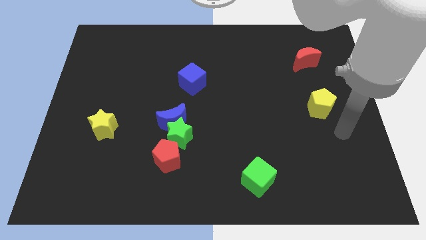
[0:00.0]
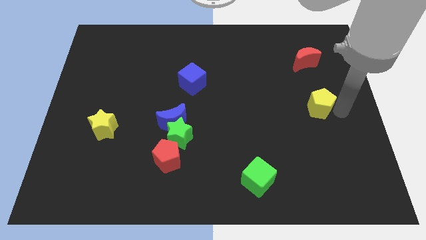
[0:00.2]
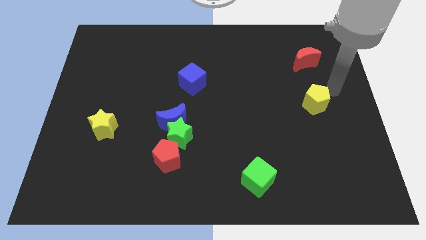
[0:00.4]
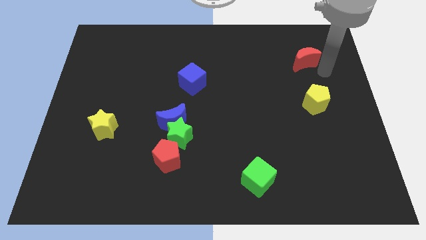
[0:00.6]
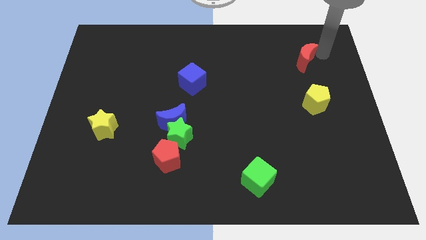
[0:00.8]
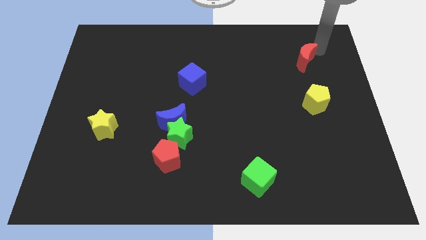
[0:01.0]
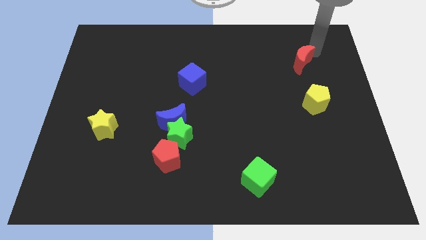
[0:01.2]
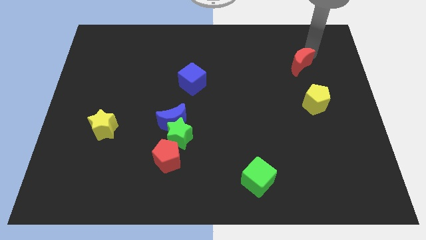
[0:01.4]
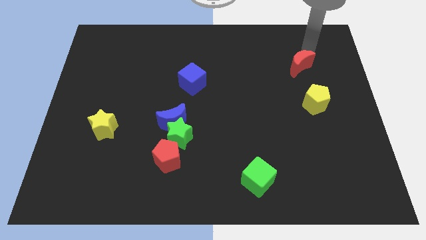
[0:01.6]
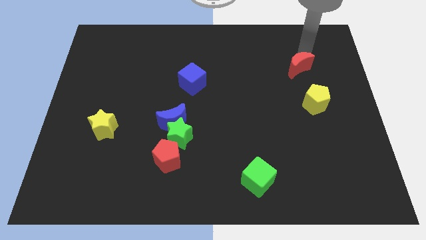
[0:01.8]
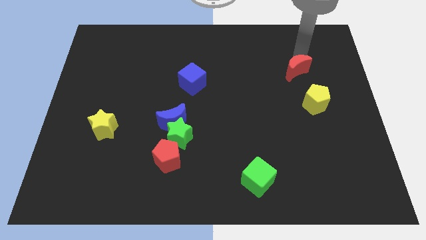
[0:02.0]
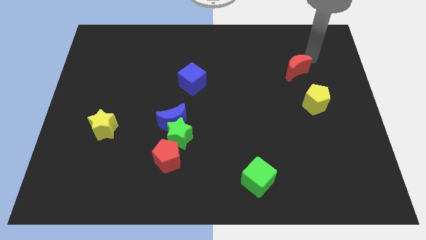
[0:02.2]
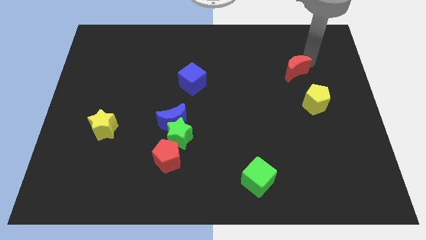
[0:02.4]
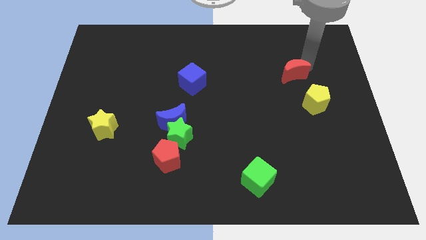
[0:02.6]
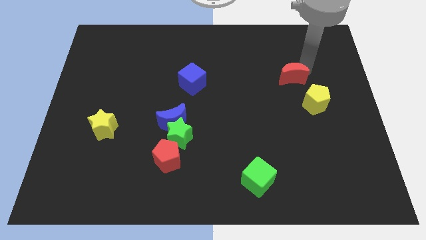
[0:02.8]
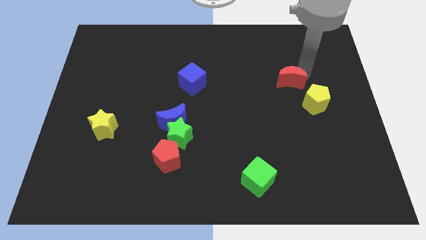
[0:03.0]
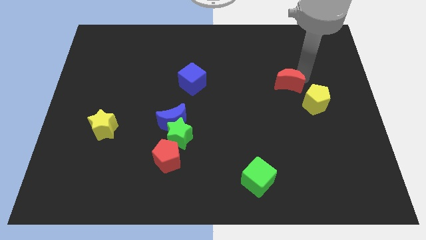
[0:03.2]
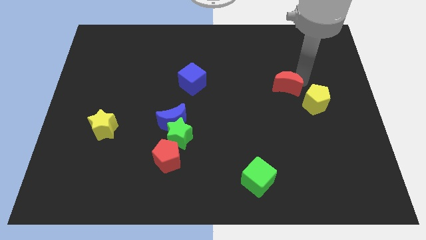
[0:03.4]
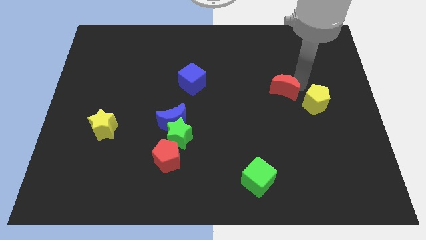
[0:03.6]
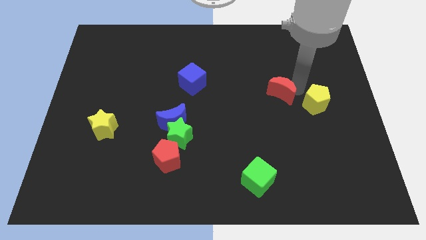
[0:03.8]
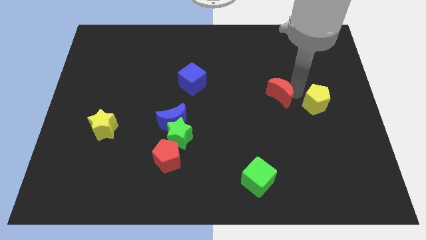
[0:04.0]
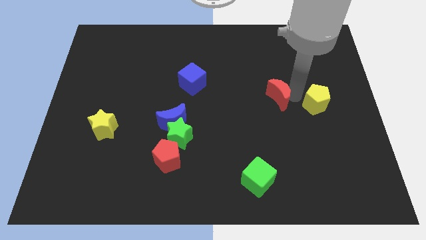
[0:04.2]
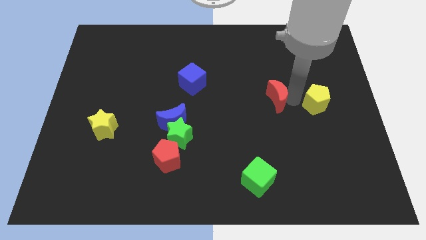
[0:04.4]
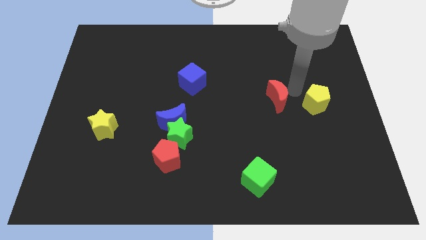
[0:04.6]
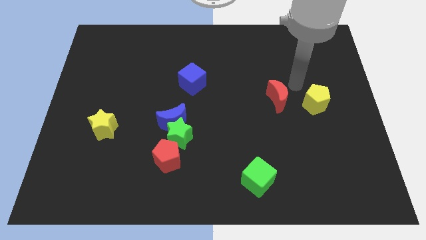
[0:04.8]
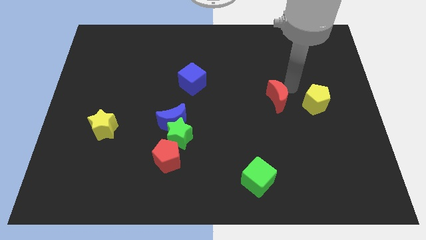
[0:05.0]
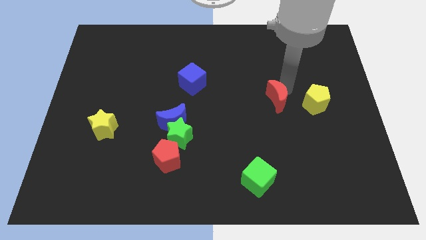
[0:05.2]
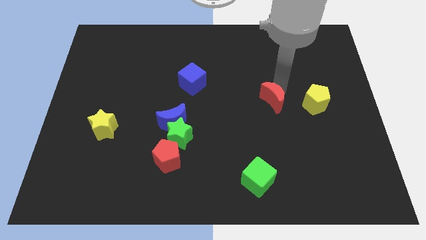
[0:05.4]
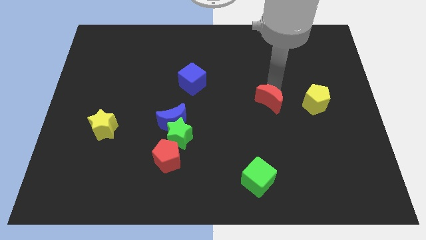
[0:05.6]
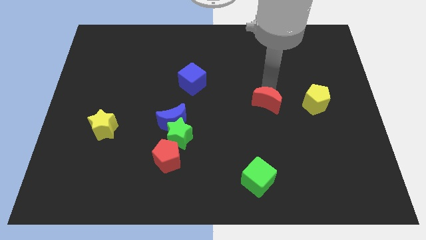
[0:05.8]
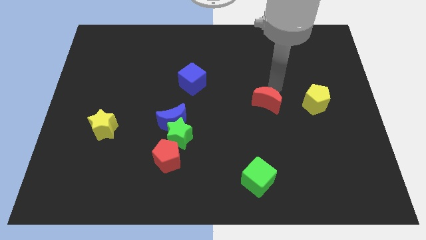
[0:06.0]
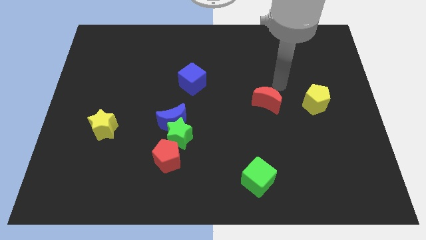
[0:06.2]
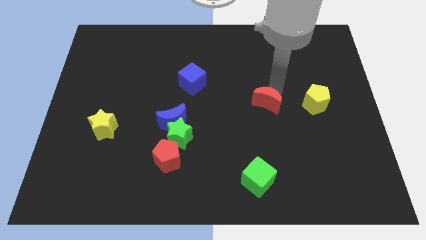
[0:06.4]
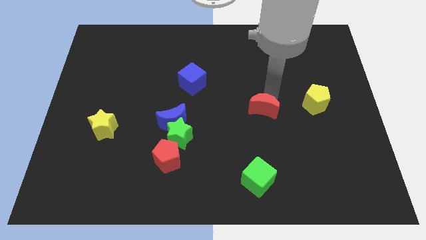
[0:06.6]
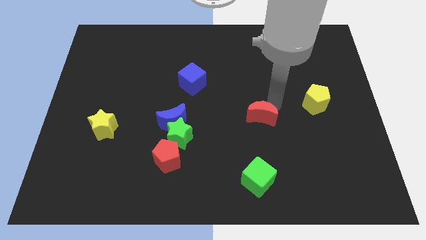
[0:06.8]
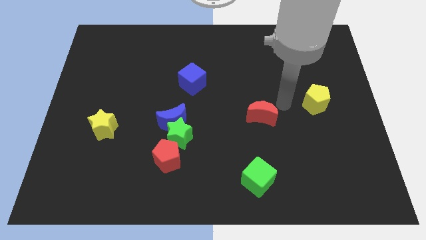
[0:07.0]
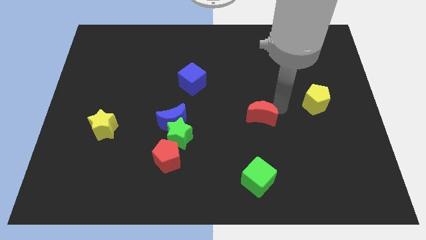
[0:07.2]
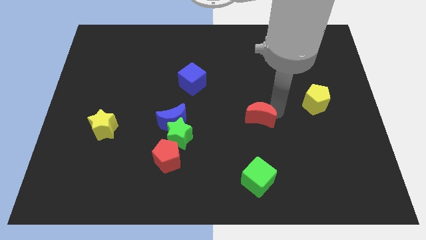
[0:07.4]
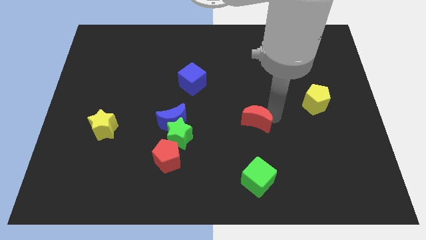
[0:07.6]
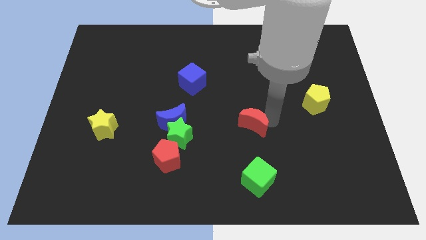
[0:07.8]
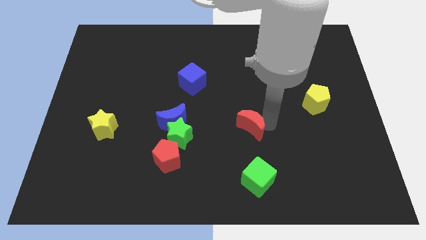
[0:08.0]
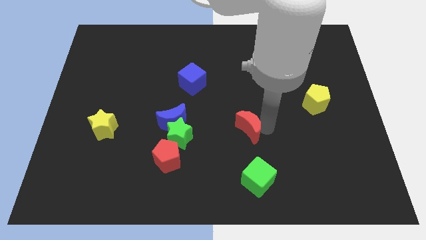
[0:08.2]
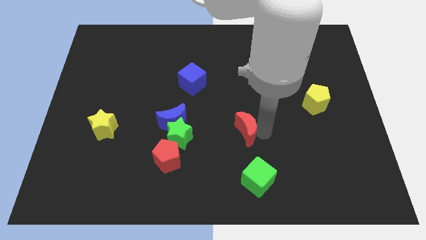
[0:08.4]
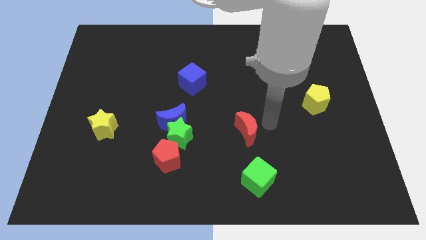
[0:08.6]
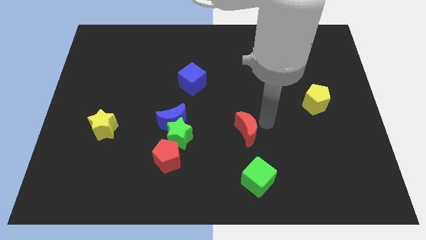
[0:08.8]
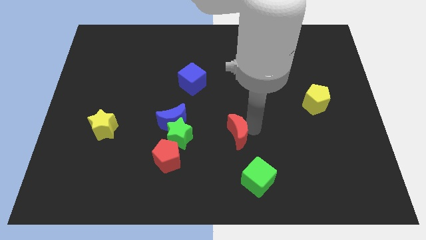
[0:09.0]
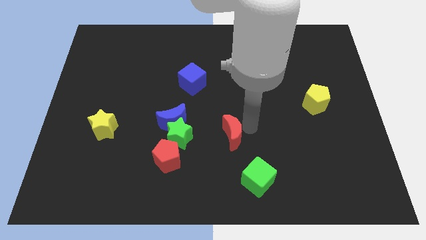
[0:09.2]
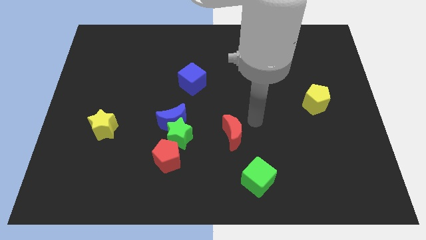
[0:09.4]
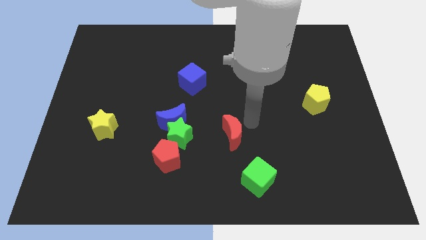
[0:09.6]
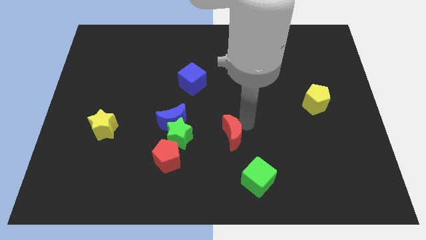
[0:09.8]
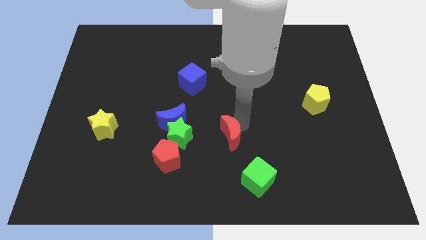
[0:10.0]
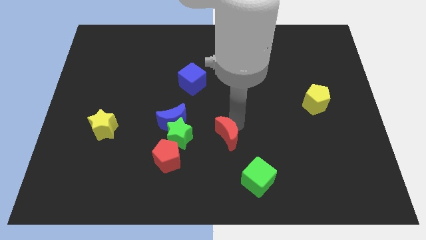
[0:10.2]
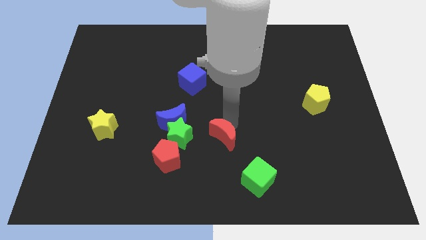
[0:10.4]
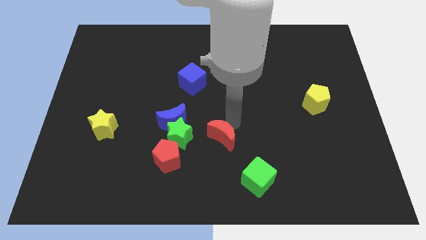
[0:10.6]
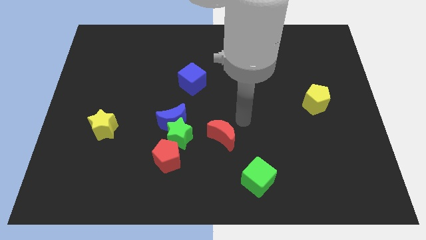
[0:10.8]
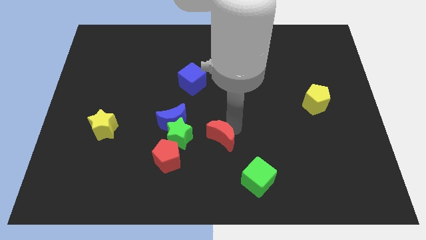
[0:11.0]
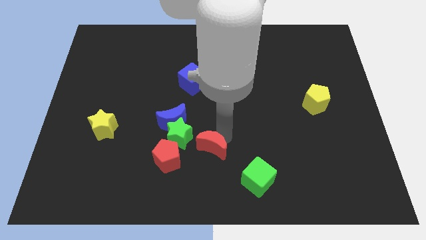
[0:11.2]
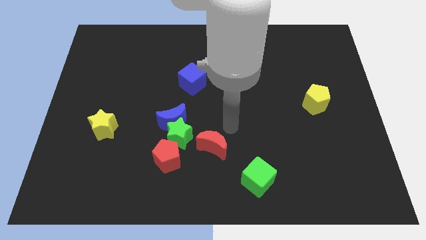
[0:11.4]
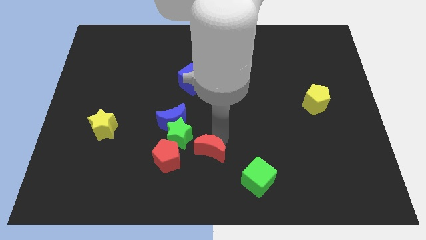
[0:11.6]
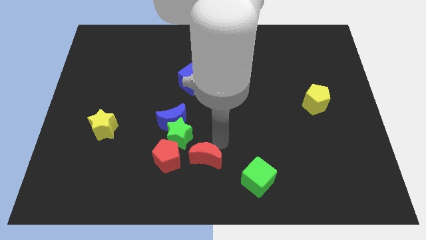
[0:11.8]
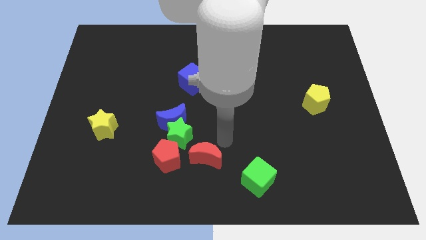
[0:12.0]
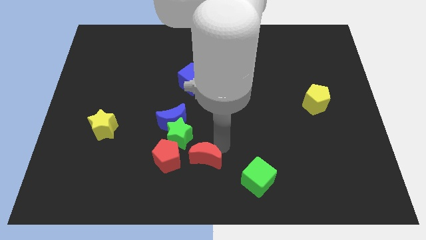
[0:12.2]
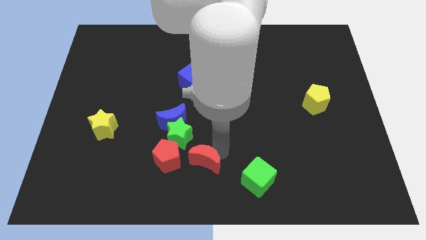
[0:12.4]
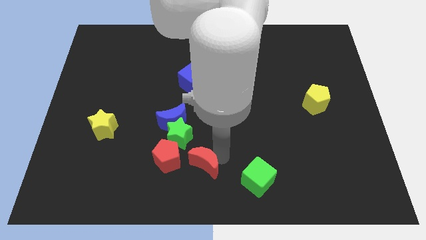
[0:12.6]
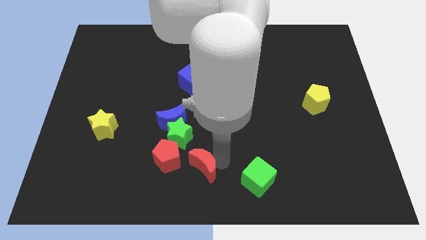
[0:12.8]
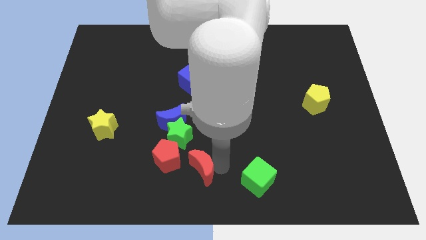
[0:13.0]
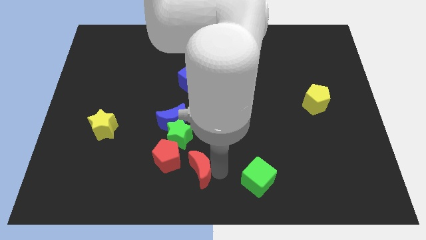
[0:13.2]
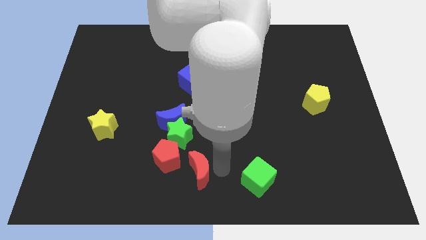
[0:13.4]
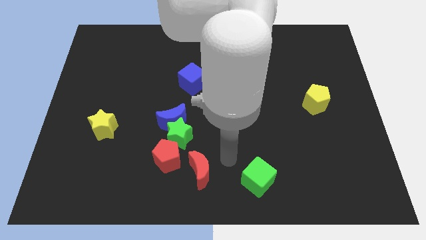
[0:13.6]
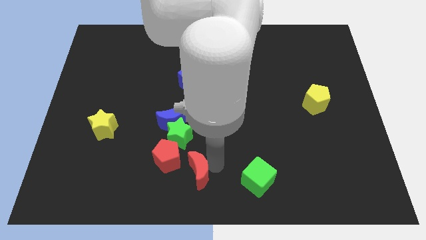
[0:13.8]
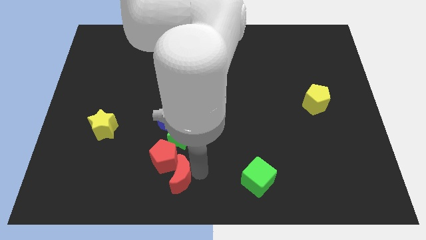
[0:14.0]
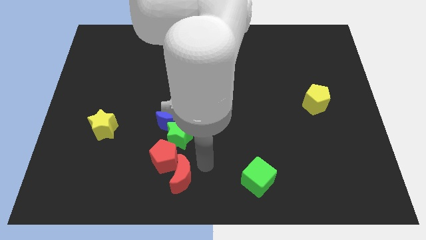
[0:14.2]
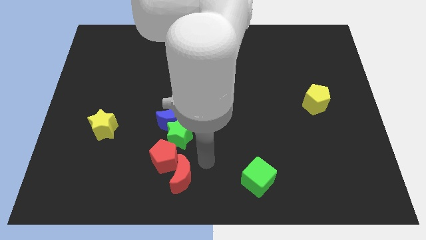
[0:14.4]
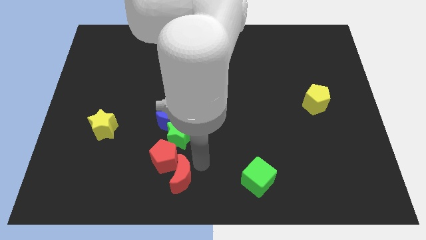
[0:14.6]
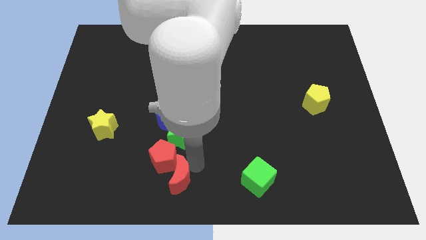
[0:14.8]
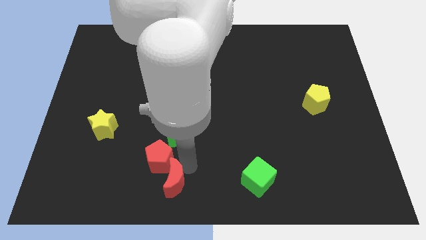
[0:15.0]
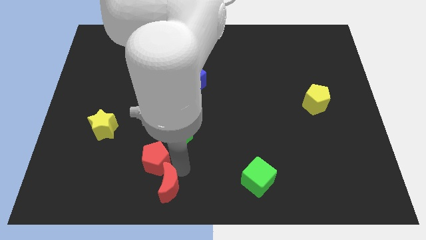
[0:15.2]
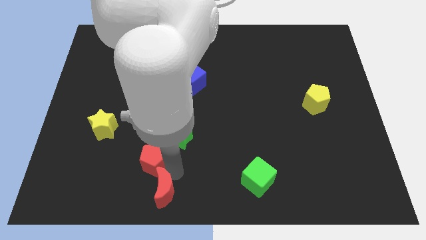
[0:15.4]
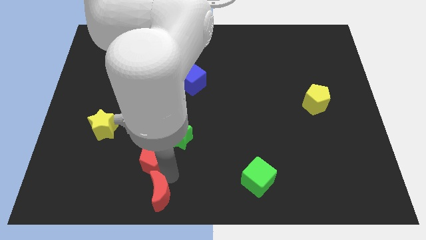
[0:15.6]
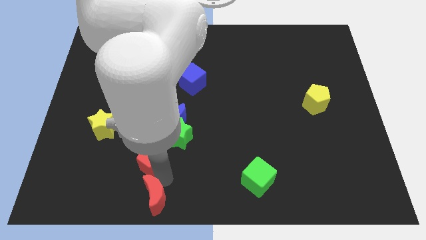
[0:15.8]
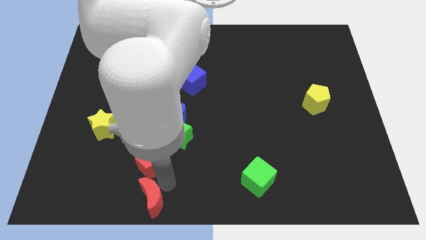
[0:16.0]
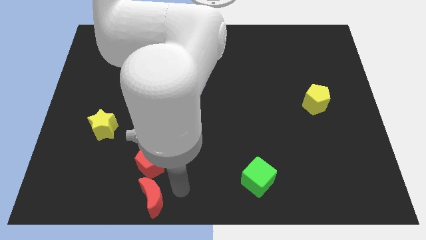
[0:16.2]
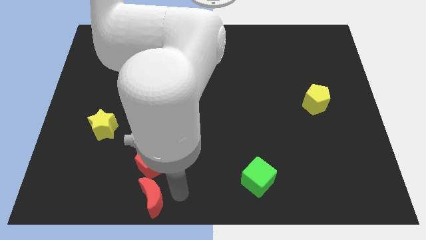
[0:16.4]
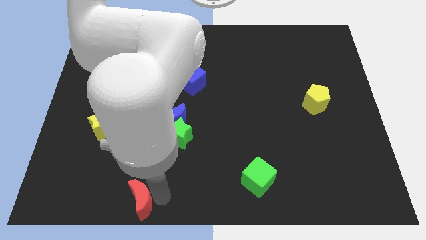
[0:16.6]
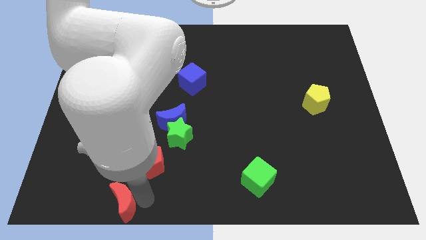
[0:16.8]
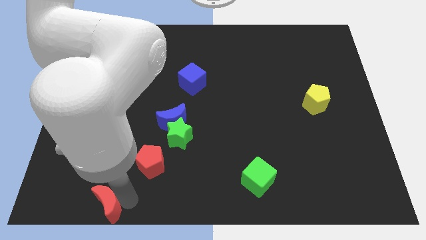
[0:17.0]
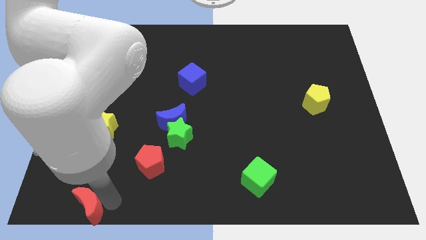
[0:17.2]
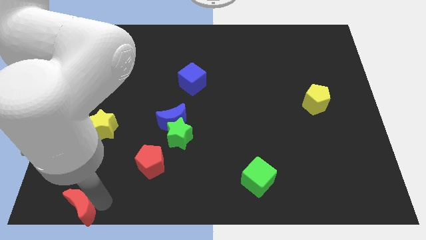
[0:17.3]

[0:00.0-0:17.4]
move the red moon to the bottom left corner
